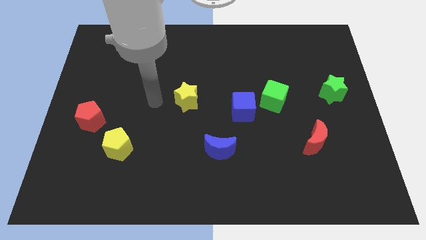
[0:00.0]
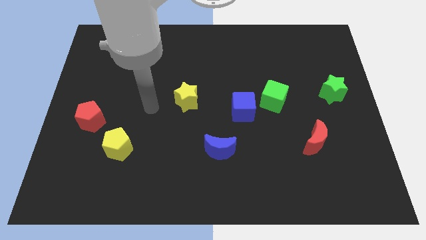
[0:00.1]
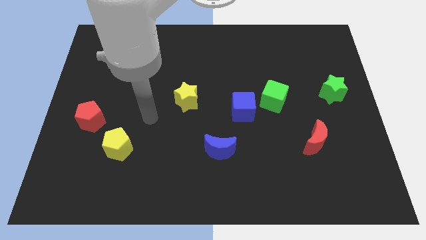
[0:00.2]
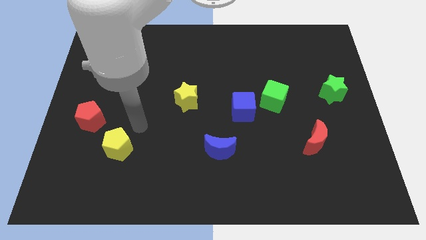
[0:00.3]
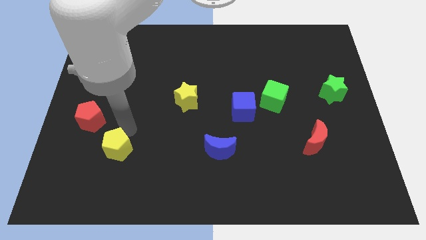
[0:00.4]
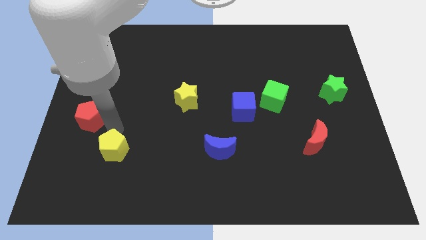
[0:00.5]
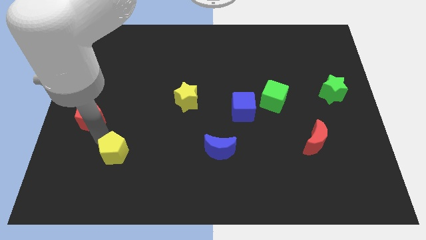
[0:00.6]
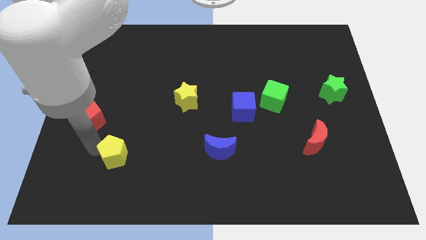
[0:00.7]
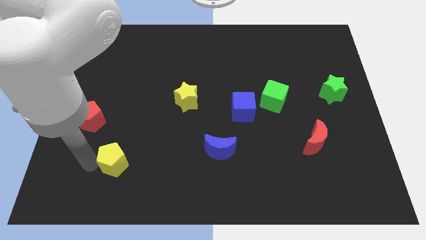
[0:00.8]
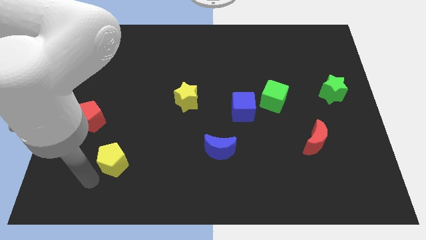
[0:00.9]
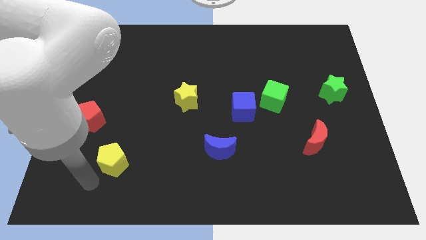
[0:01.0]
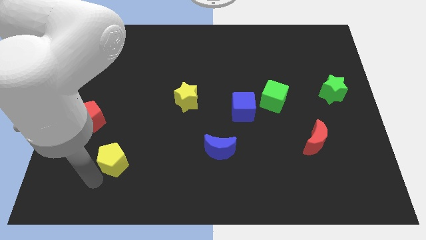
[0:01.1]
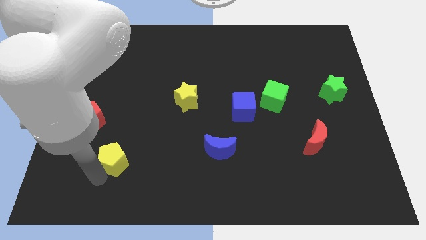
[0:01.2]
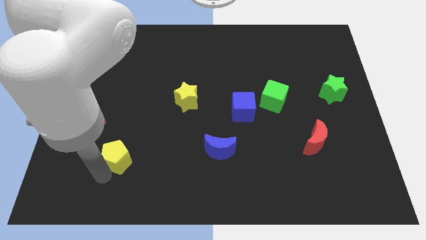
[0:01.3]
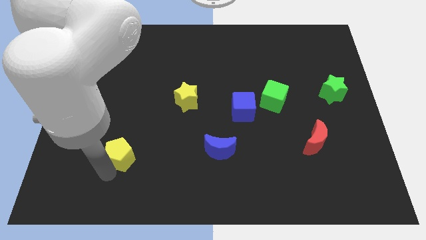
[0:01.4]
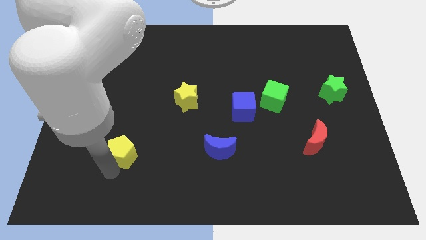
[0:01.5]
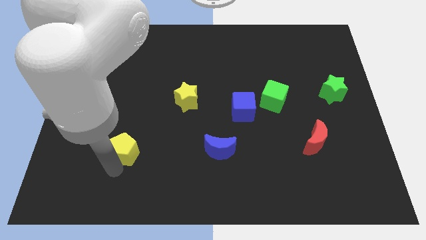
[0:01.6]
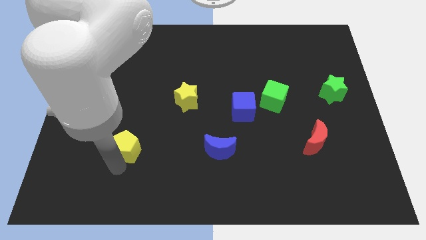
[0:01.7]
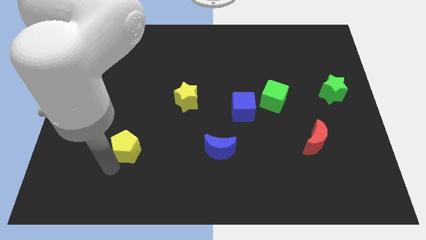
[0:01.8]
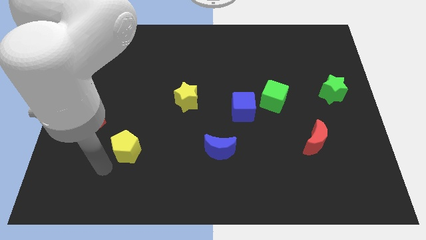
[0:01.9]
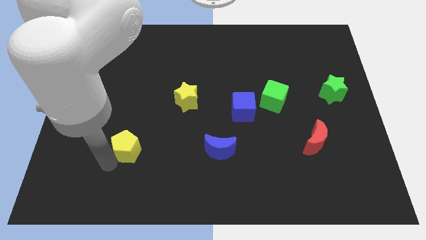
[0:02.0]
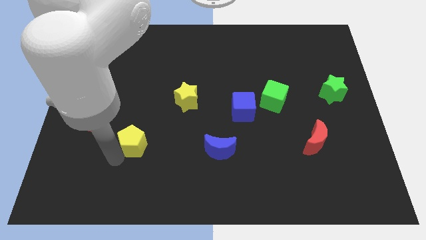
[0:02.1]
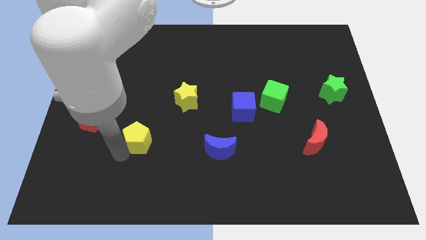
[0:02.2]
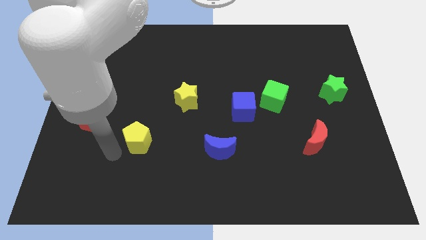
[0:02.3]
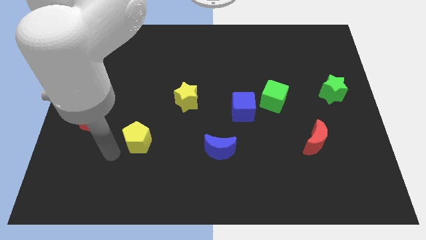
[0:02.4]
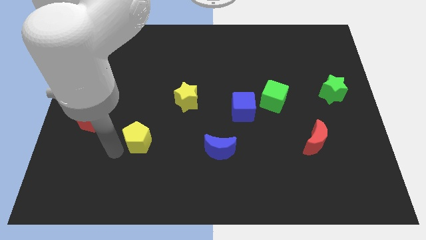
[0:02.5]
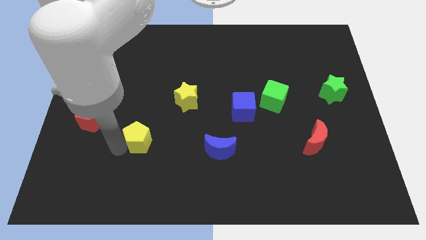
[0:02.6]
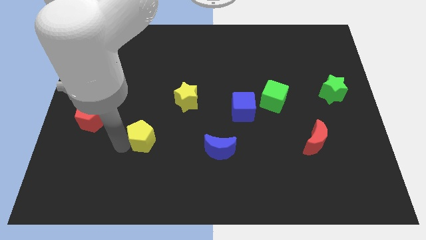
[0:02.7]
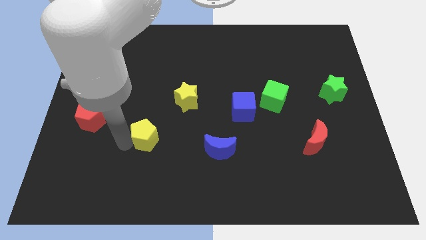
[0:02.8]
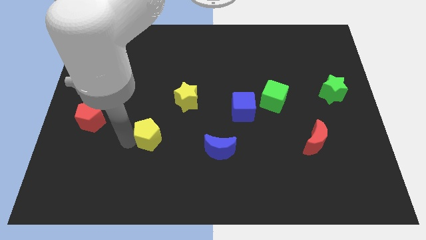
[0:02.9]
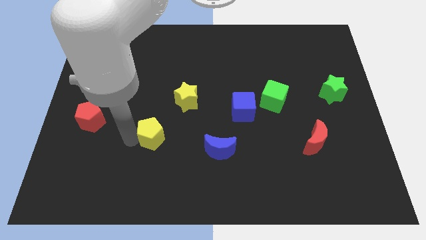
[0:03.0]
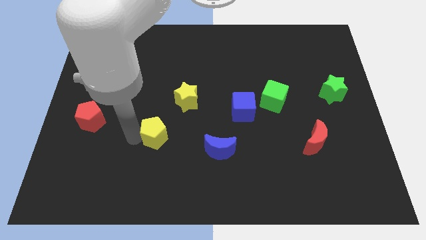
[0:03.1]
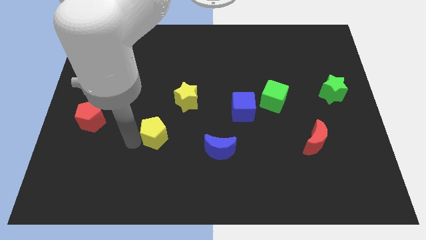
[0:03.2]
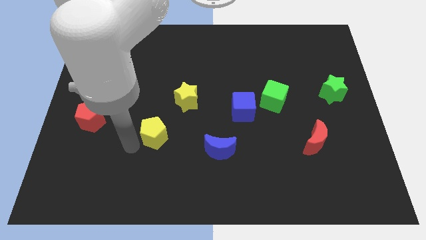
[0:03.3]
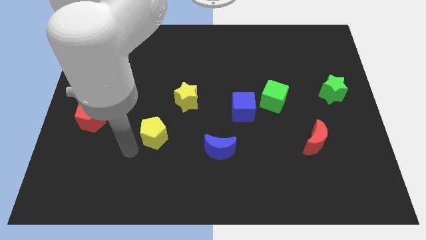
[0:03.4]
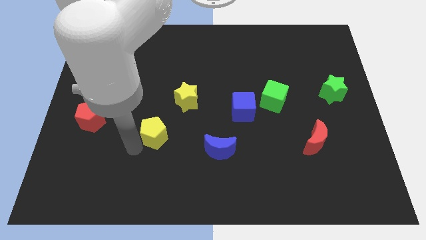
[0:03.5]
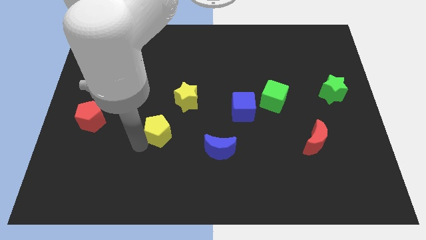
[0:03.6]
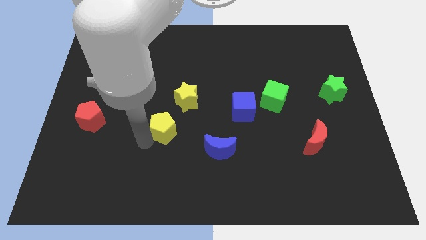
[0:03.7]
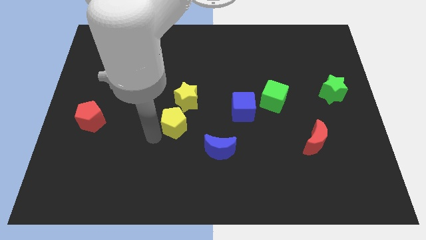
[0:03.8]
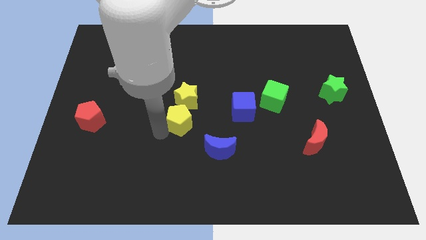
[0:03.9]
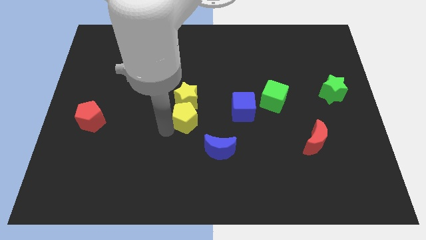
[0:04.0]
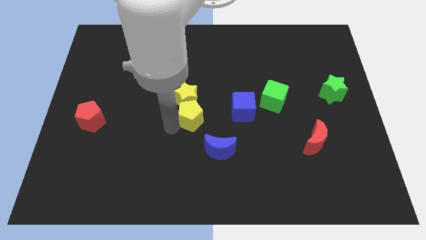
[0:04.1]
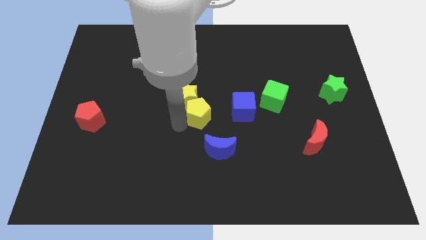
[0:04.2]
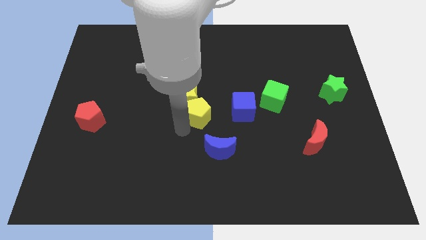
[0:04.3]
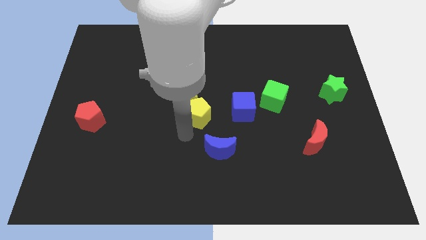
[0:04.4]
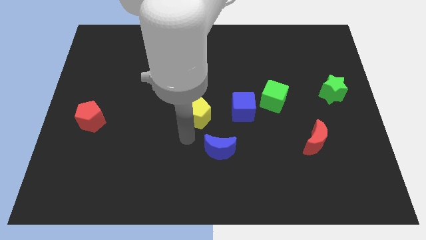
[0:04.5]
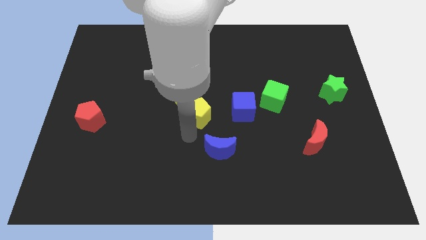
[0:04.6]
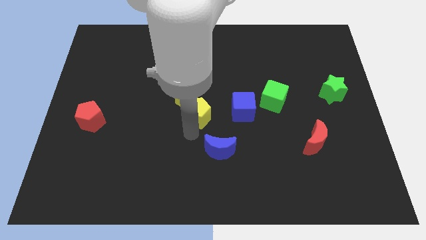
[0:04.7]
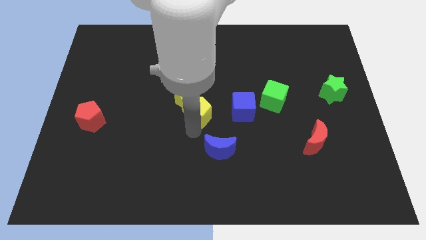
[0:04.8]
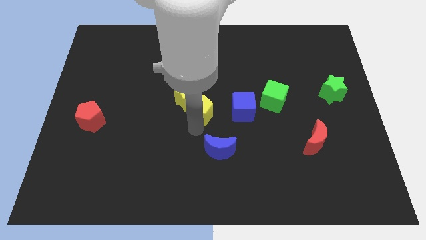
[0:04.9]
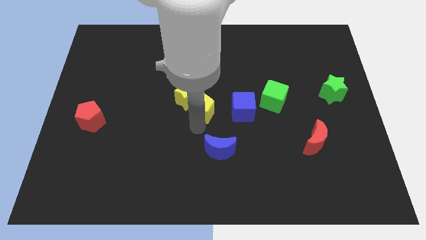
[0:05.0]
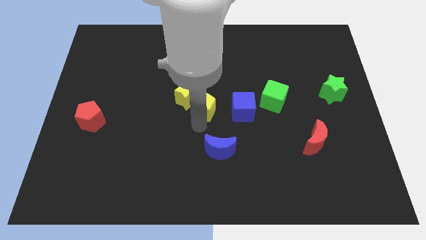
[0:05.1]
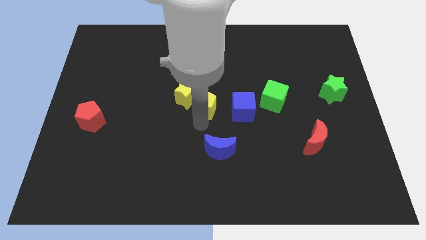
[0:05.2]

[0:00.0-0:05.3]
slide the yellow pentagon diagonally up and to the right

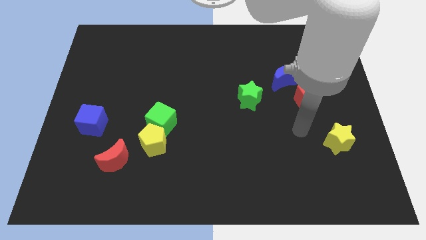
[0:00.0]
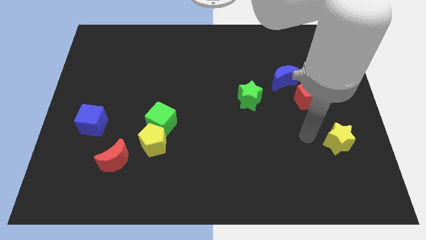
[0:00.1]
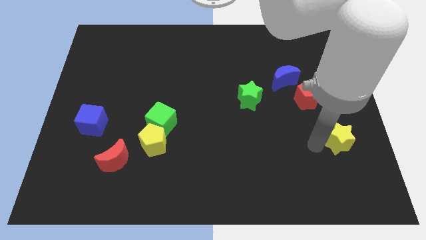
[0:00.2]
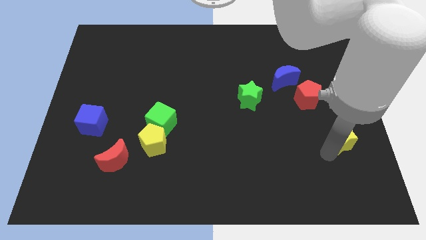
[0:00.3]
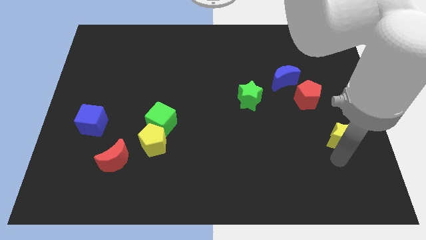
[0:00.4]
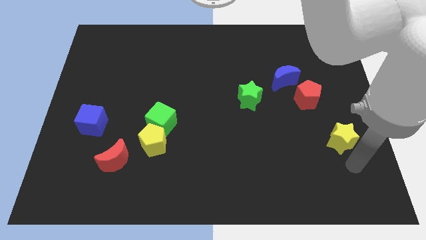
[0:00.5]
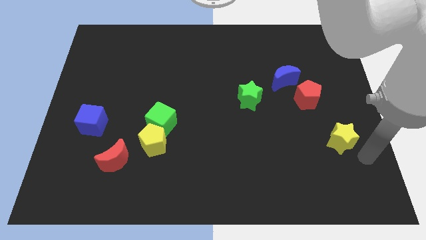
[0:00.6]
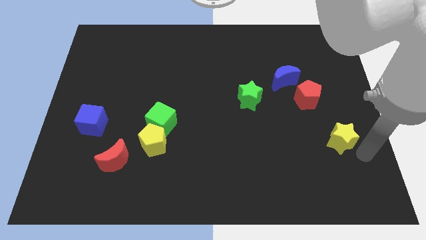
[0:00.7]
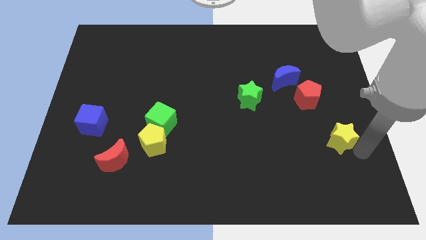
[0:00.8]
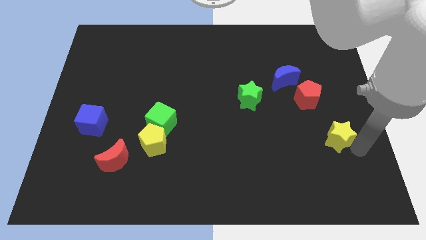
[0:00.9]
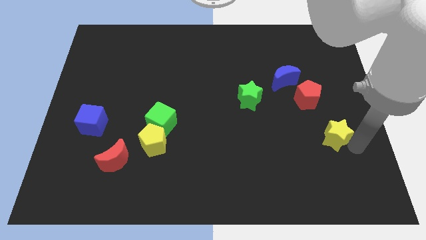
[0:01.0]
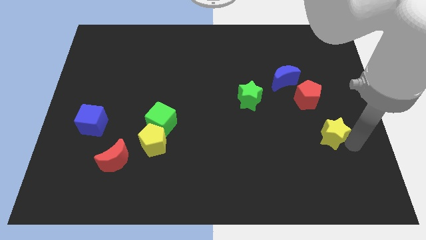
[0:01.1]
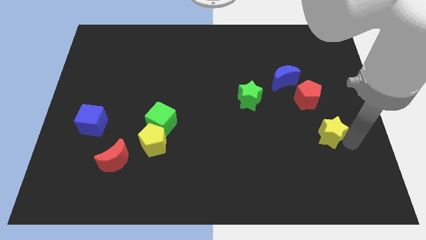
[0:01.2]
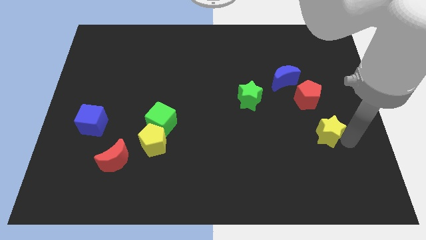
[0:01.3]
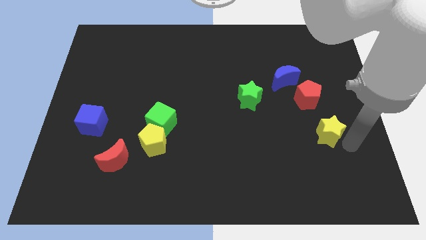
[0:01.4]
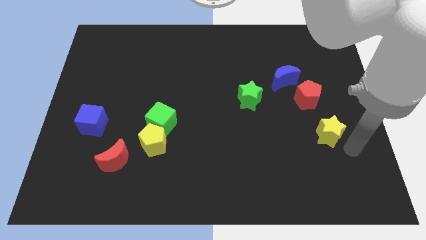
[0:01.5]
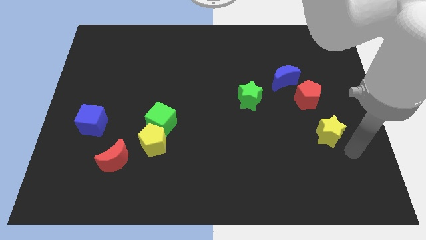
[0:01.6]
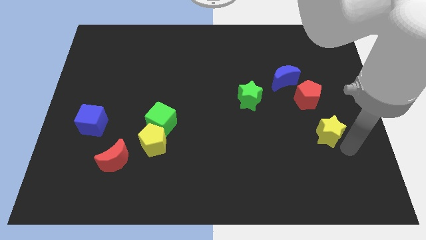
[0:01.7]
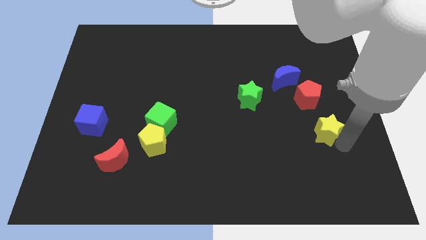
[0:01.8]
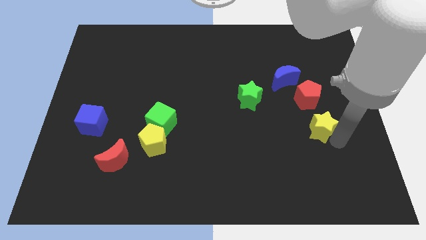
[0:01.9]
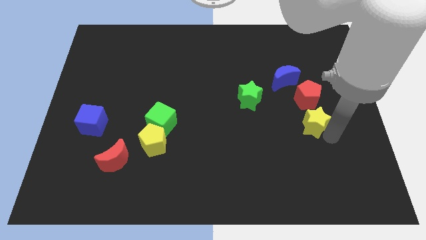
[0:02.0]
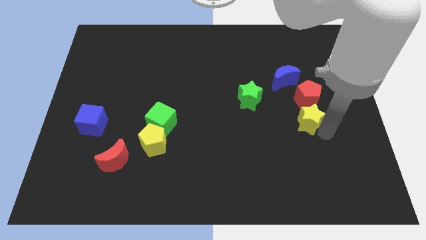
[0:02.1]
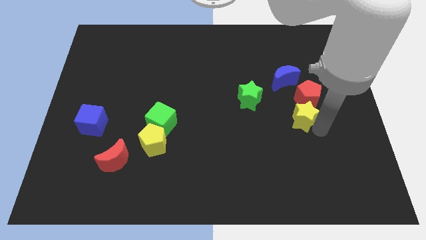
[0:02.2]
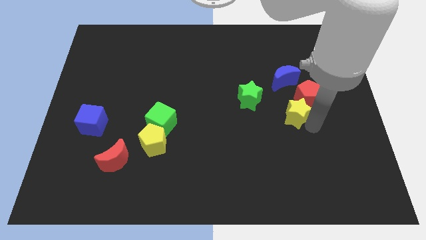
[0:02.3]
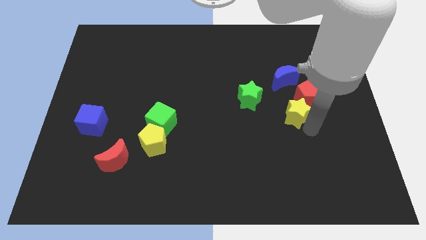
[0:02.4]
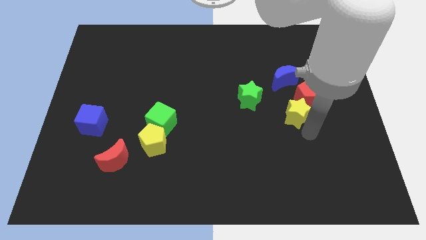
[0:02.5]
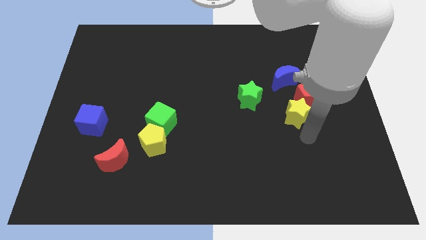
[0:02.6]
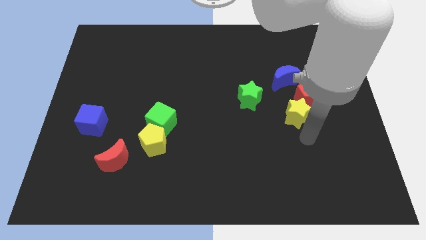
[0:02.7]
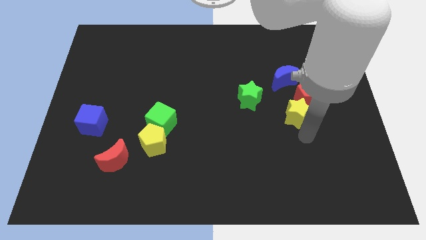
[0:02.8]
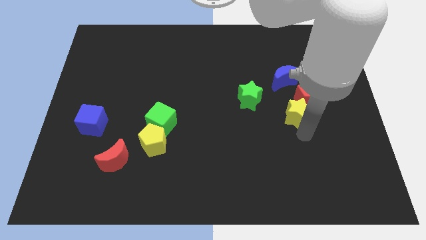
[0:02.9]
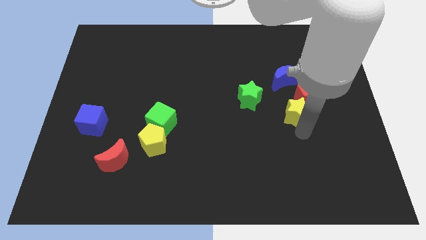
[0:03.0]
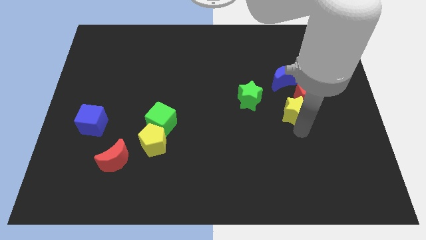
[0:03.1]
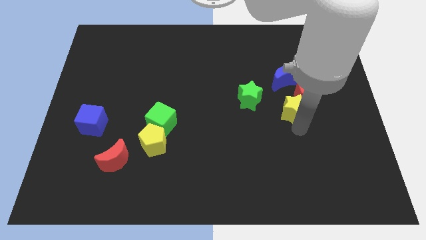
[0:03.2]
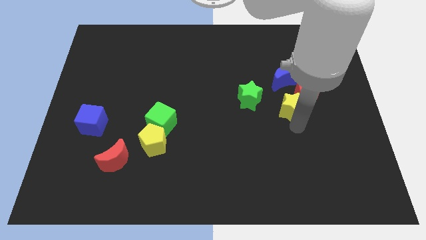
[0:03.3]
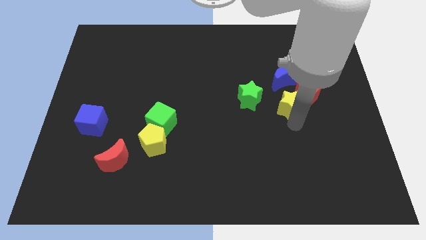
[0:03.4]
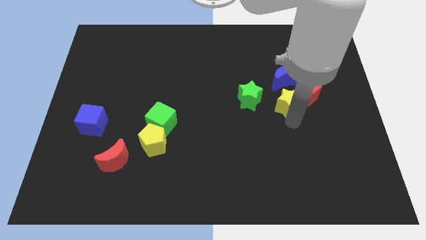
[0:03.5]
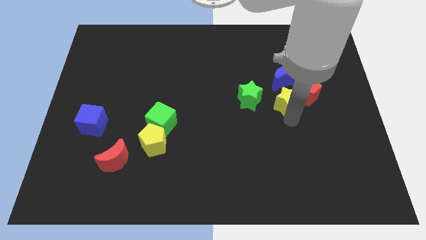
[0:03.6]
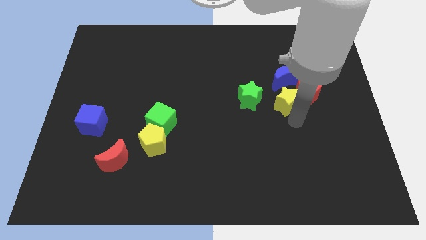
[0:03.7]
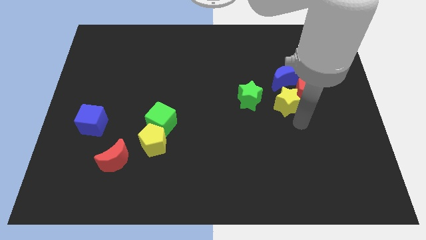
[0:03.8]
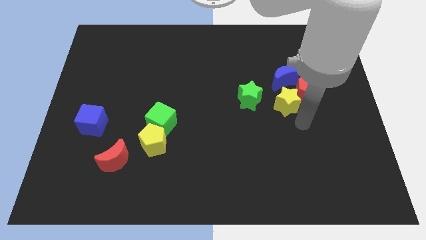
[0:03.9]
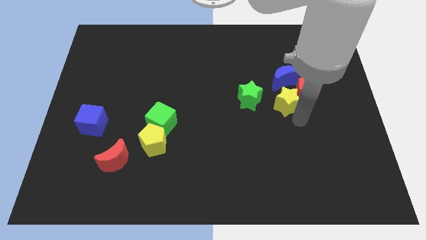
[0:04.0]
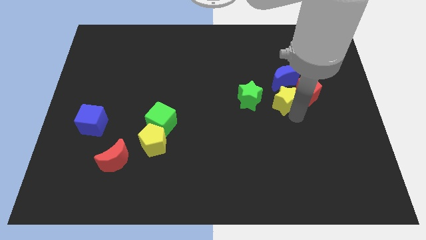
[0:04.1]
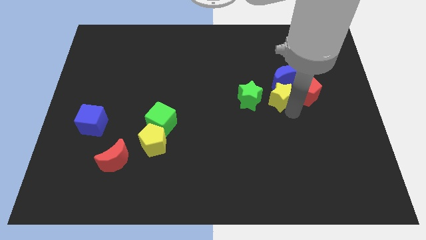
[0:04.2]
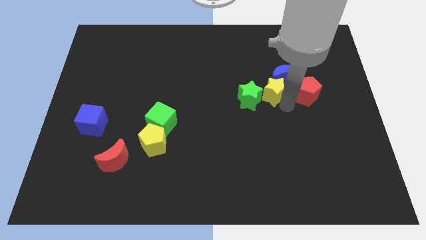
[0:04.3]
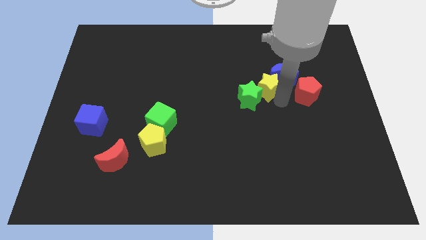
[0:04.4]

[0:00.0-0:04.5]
push the yellow star upwards and to the left
